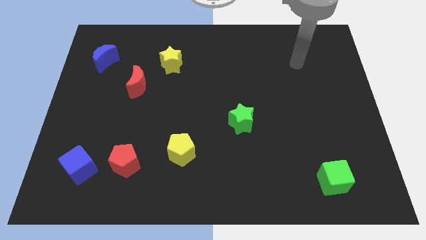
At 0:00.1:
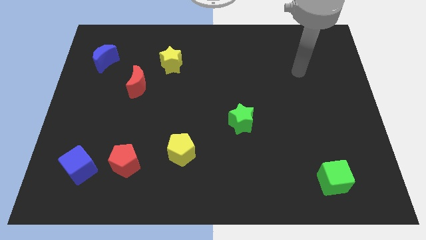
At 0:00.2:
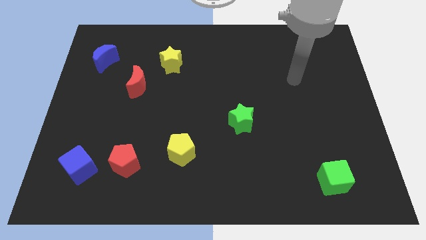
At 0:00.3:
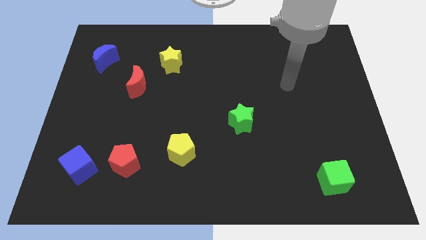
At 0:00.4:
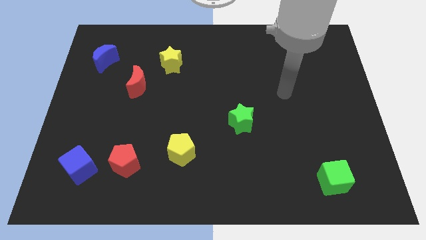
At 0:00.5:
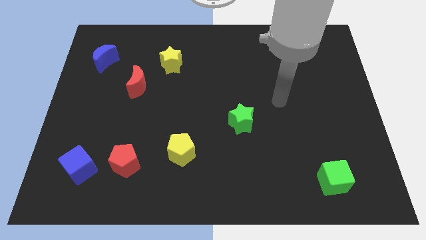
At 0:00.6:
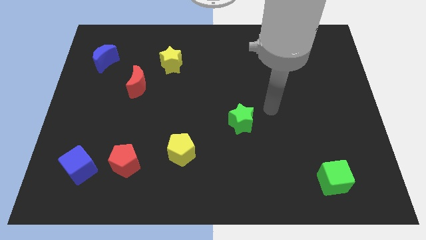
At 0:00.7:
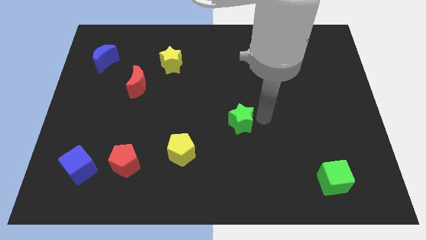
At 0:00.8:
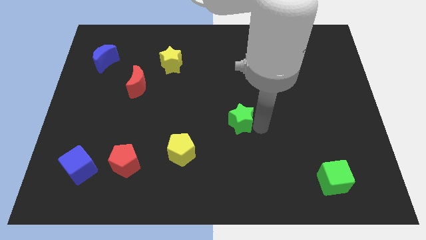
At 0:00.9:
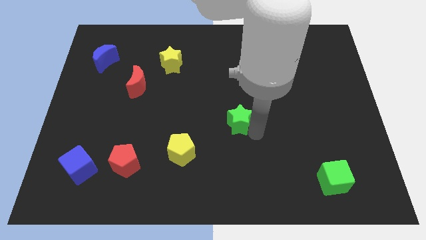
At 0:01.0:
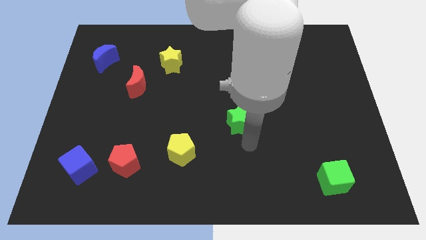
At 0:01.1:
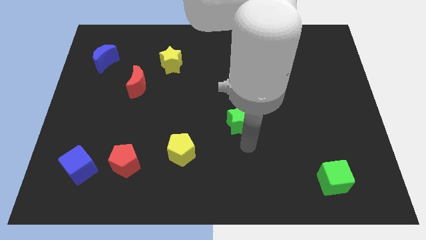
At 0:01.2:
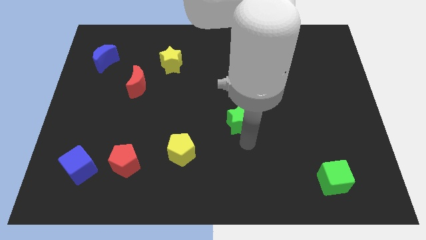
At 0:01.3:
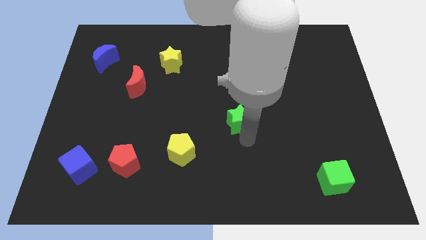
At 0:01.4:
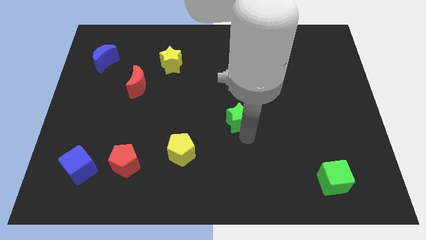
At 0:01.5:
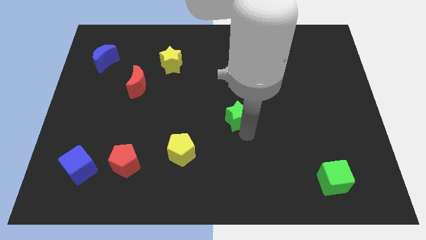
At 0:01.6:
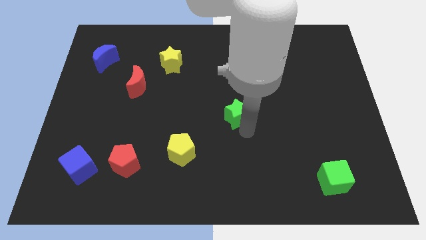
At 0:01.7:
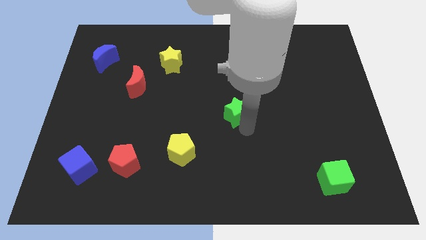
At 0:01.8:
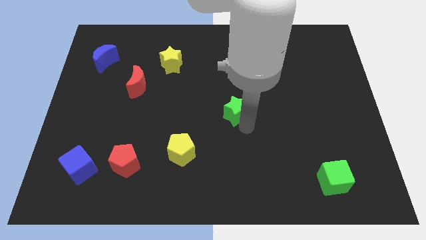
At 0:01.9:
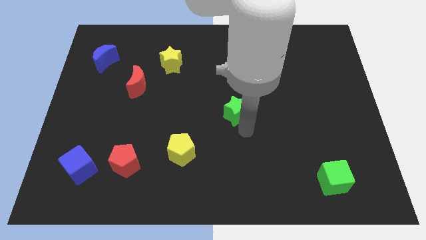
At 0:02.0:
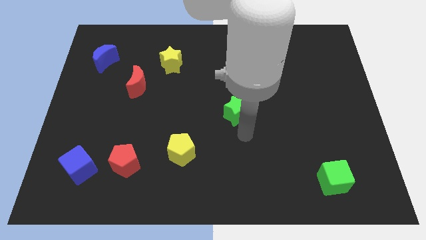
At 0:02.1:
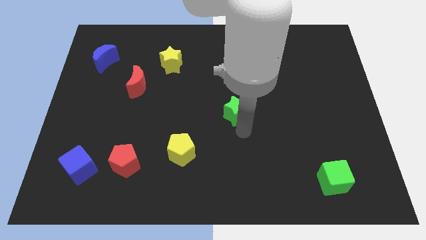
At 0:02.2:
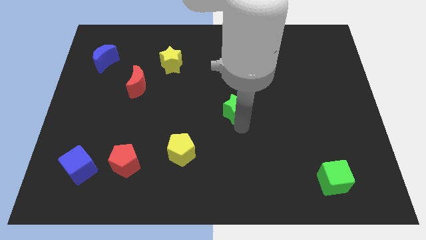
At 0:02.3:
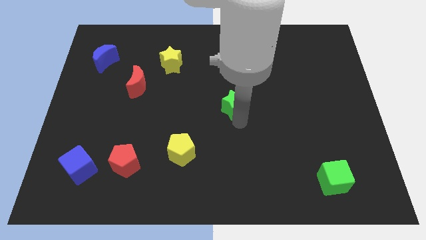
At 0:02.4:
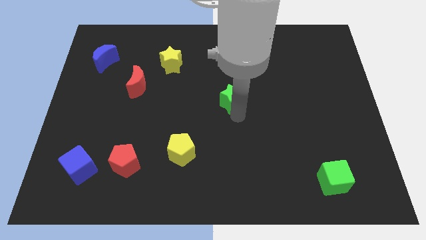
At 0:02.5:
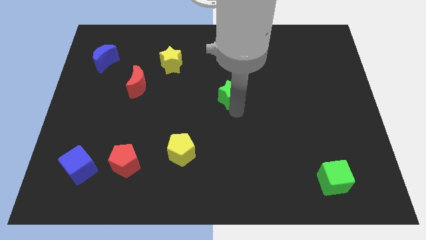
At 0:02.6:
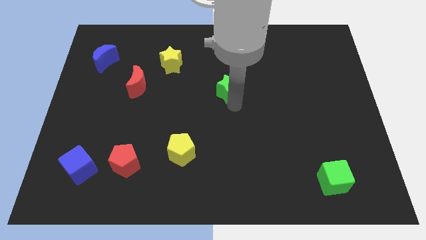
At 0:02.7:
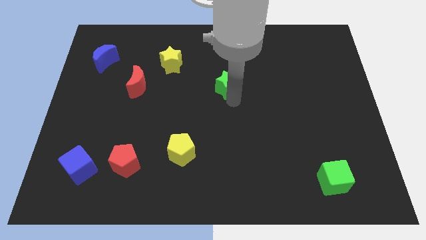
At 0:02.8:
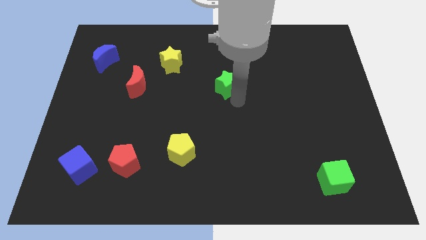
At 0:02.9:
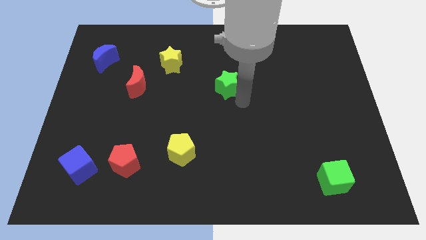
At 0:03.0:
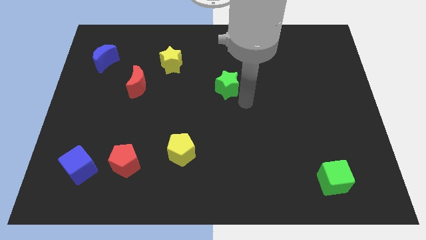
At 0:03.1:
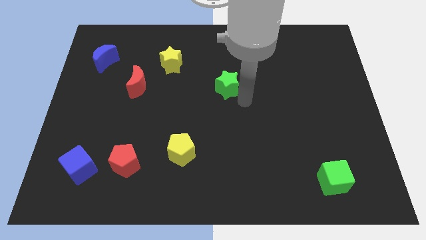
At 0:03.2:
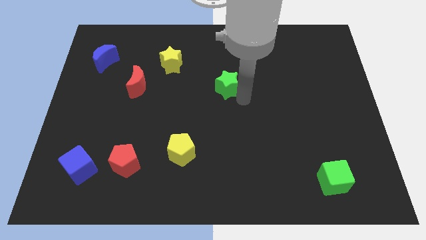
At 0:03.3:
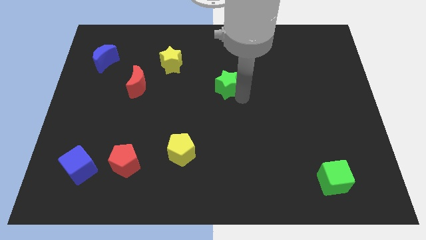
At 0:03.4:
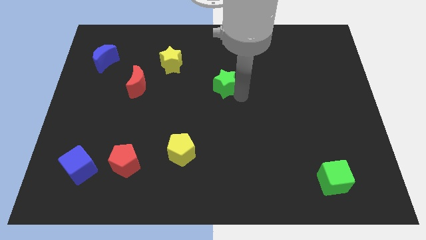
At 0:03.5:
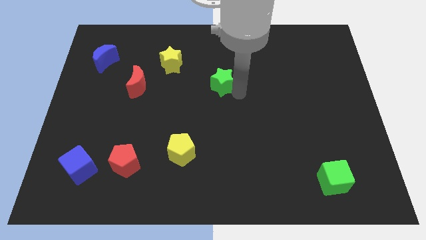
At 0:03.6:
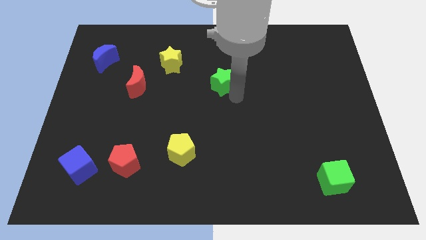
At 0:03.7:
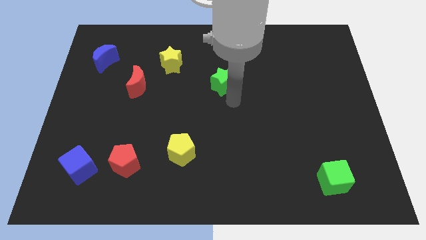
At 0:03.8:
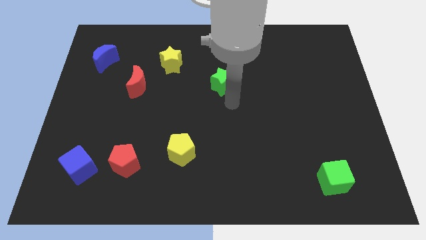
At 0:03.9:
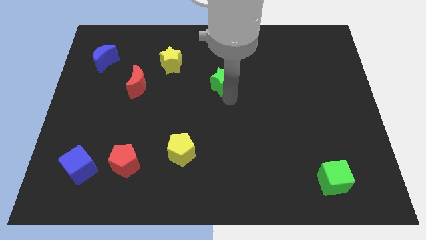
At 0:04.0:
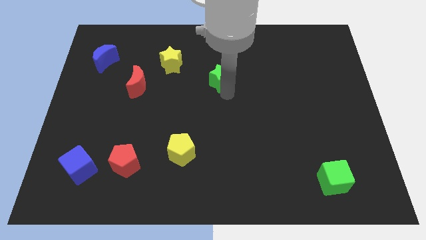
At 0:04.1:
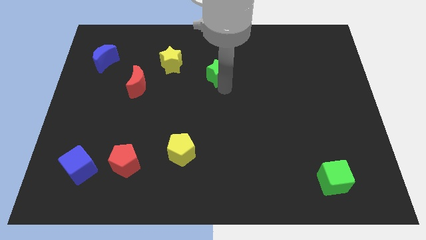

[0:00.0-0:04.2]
slide the green star just right of the yellow star

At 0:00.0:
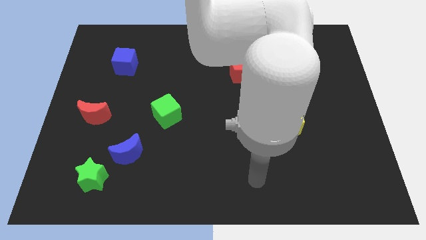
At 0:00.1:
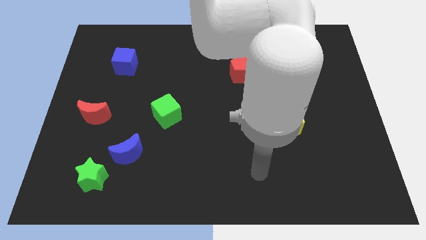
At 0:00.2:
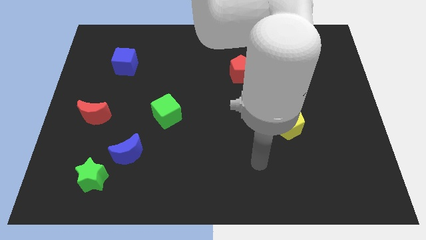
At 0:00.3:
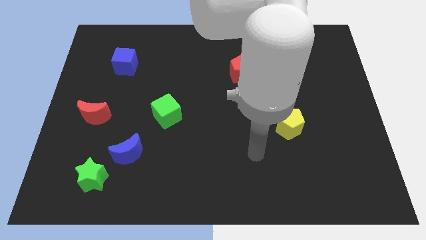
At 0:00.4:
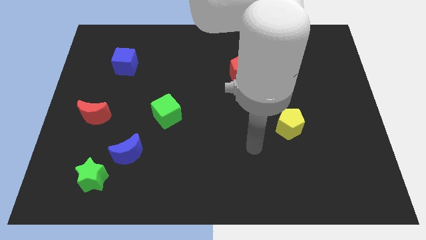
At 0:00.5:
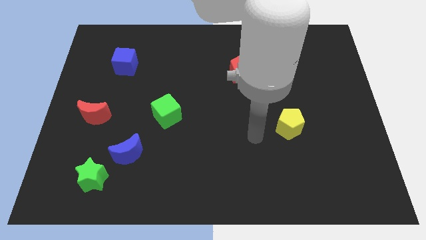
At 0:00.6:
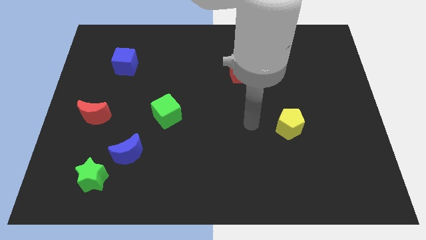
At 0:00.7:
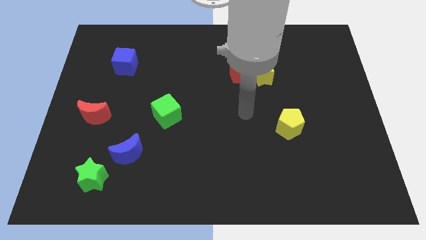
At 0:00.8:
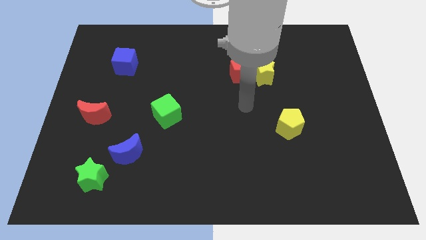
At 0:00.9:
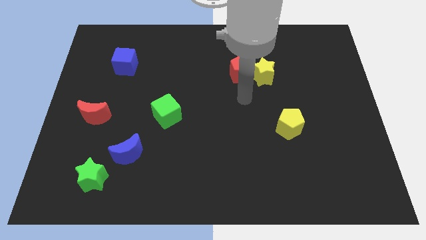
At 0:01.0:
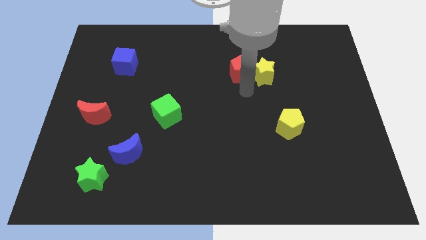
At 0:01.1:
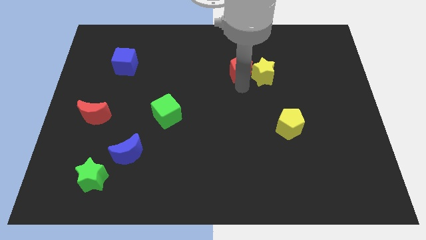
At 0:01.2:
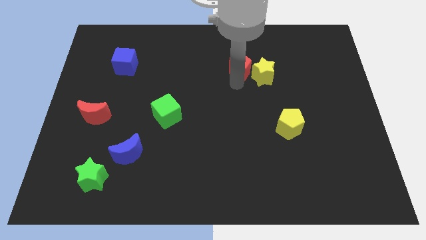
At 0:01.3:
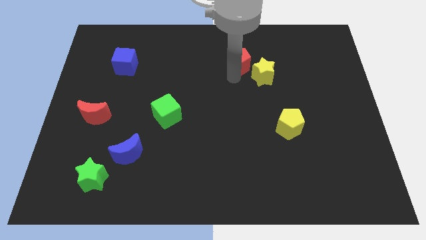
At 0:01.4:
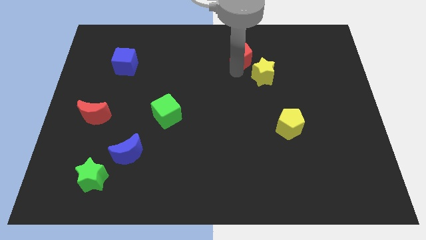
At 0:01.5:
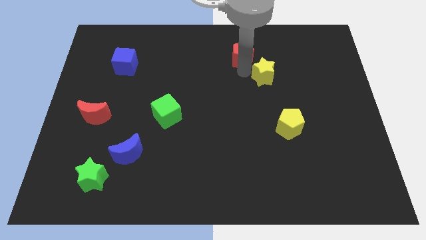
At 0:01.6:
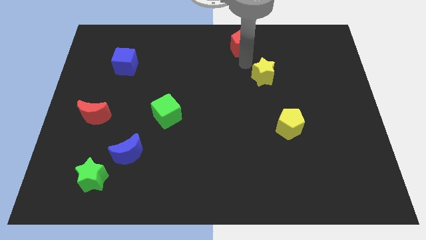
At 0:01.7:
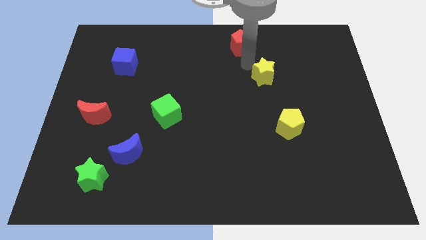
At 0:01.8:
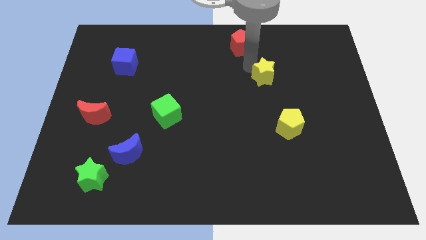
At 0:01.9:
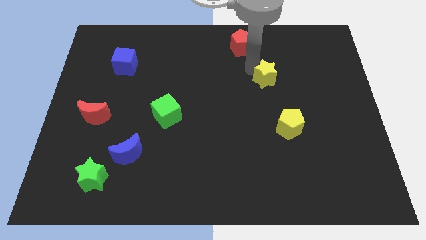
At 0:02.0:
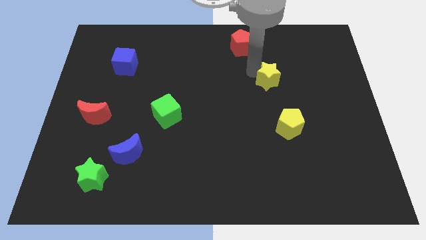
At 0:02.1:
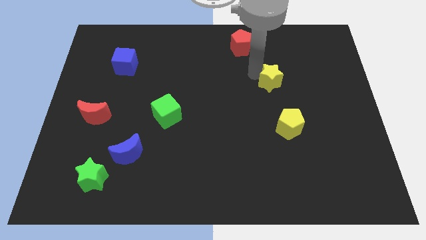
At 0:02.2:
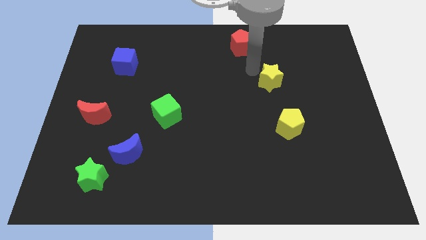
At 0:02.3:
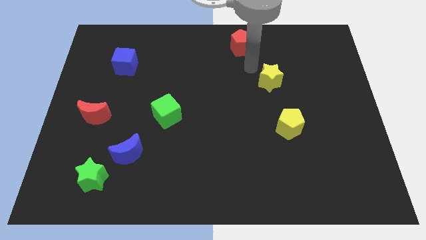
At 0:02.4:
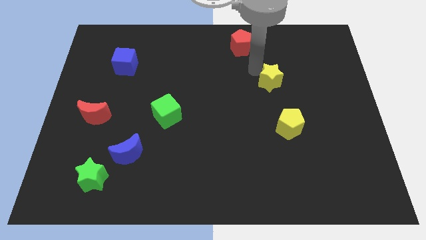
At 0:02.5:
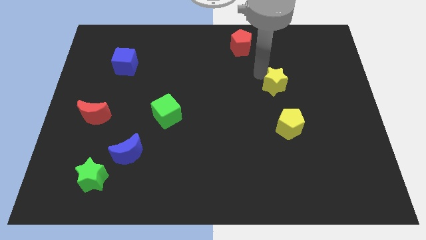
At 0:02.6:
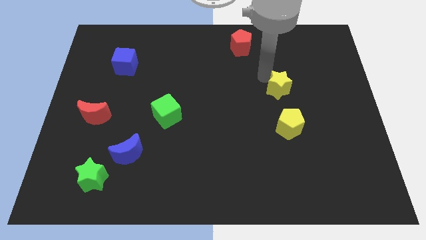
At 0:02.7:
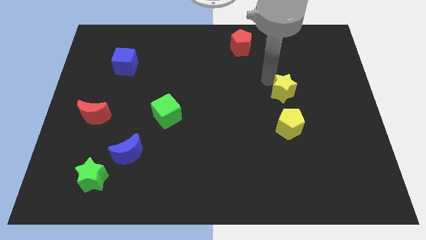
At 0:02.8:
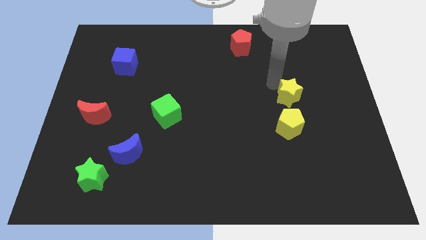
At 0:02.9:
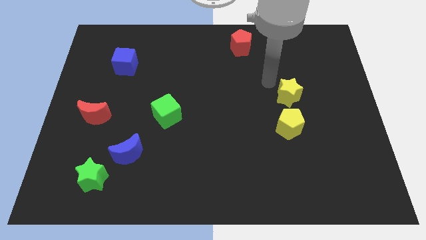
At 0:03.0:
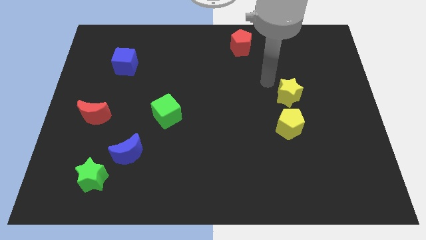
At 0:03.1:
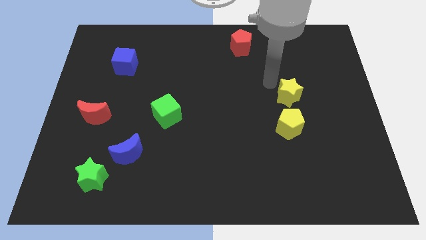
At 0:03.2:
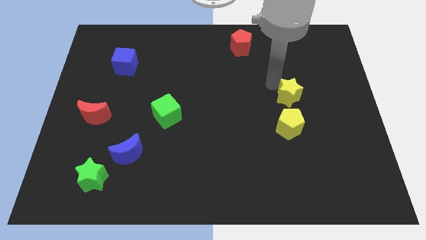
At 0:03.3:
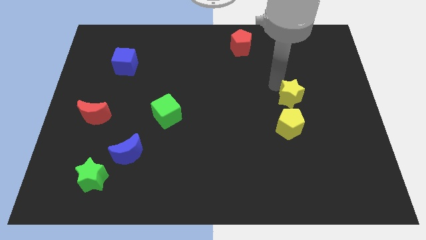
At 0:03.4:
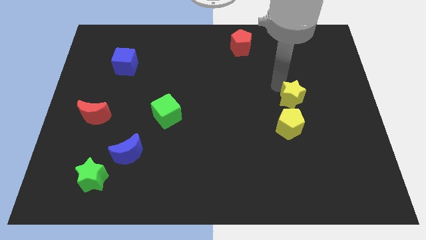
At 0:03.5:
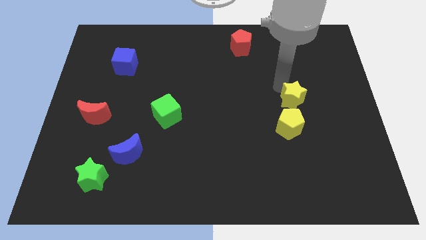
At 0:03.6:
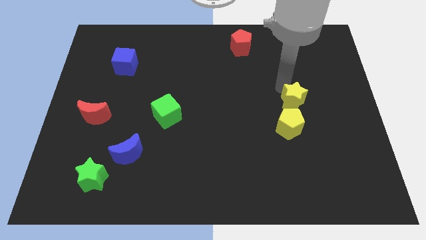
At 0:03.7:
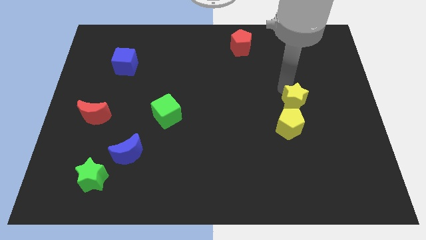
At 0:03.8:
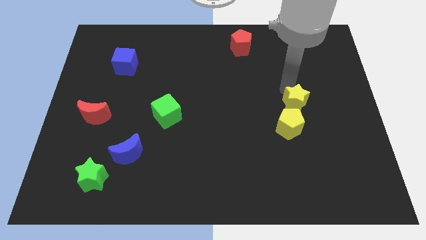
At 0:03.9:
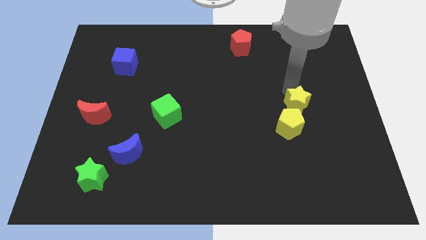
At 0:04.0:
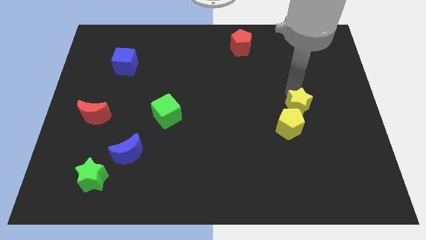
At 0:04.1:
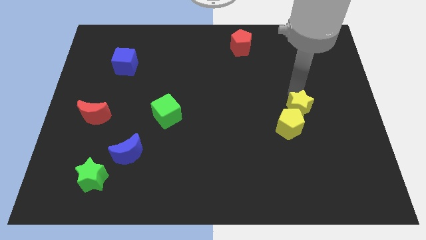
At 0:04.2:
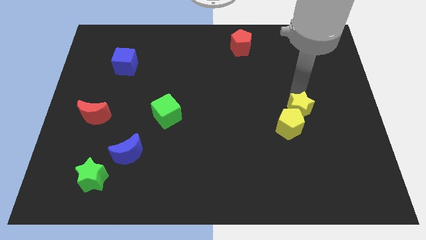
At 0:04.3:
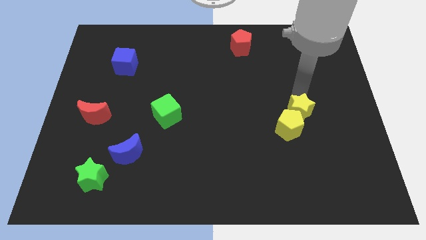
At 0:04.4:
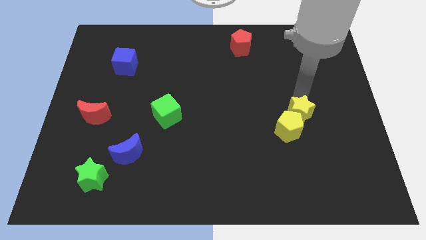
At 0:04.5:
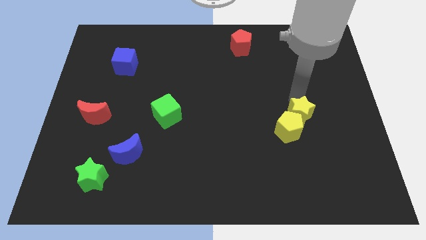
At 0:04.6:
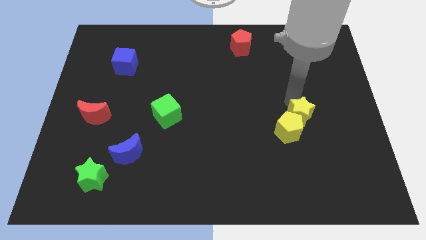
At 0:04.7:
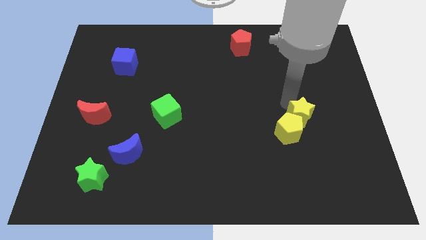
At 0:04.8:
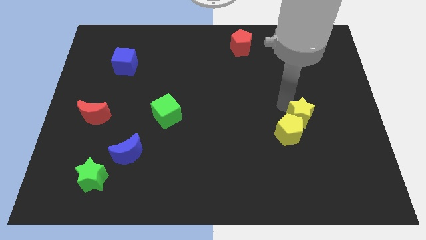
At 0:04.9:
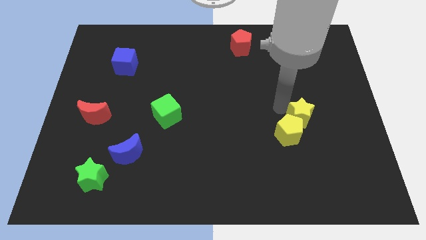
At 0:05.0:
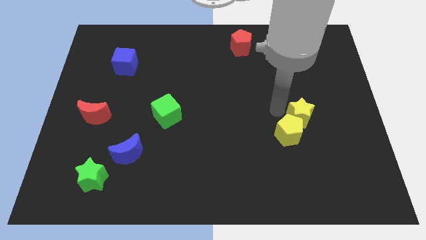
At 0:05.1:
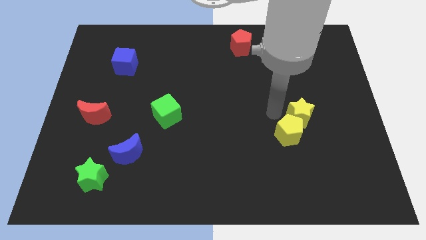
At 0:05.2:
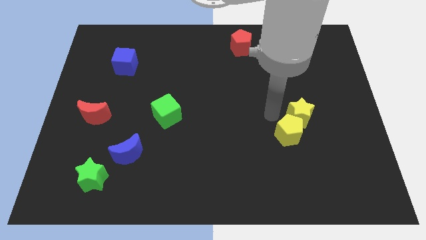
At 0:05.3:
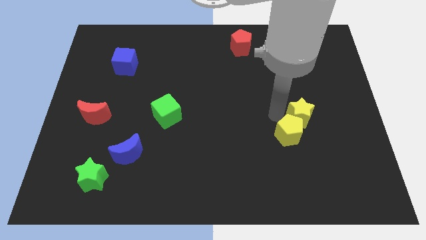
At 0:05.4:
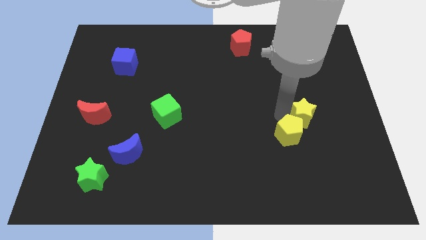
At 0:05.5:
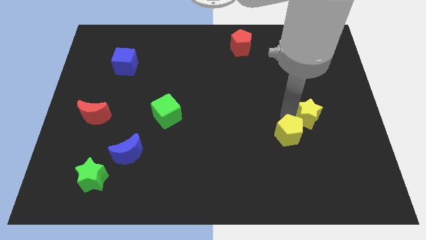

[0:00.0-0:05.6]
put the yellow star to the right side of the yellow pentagon
